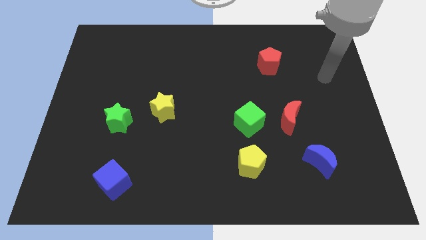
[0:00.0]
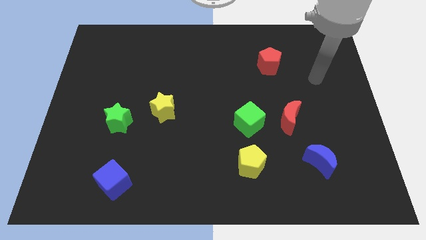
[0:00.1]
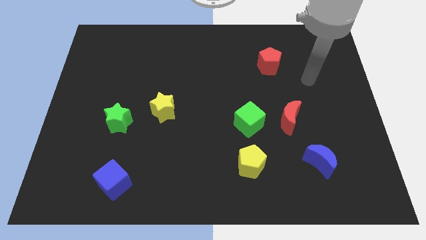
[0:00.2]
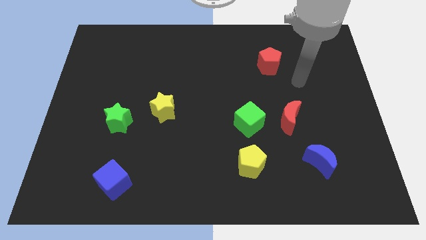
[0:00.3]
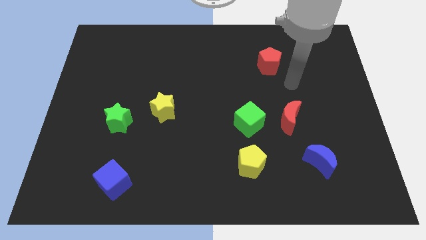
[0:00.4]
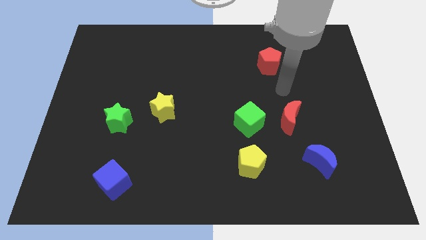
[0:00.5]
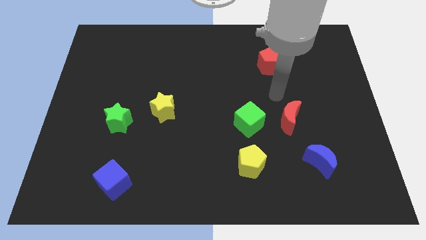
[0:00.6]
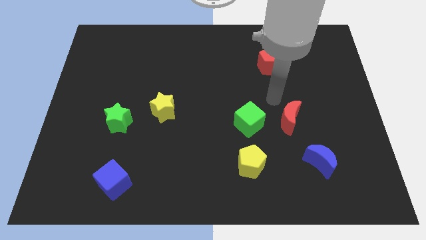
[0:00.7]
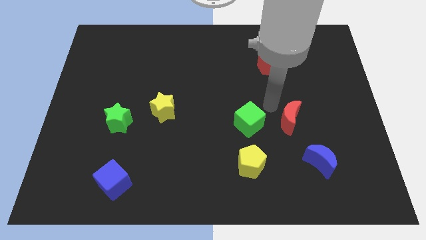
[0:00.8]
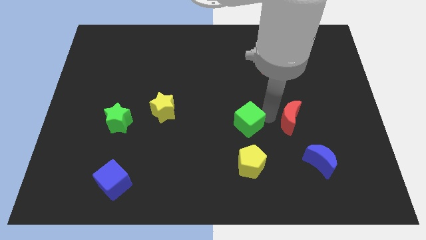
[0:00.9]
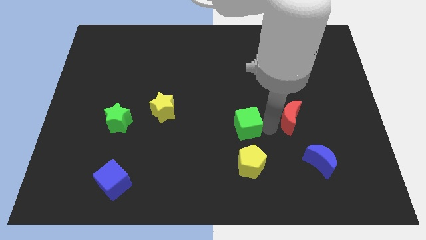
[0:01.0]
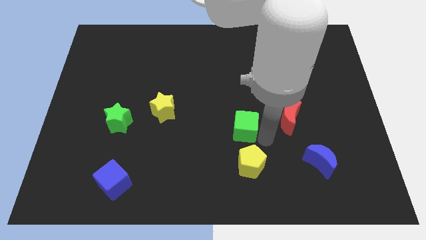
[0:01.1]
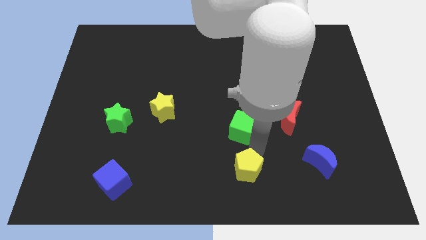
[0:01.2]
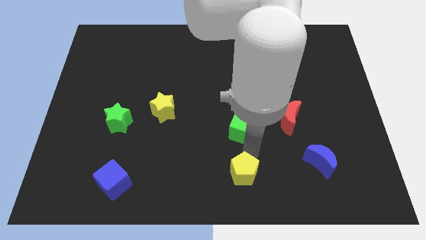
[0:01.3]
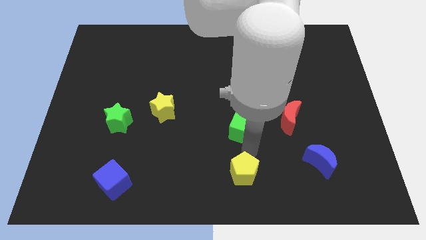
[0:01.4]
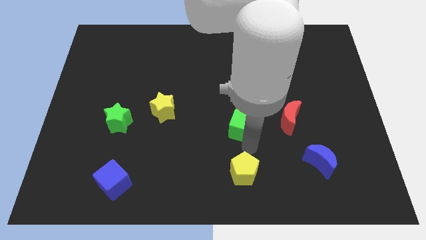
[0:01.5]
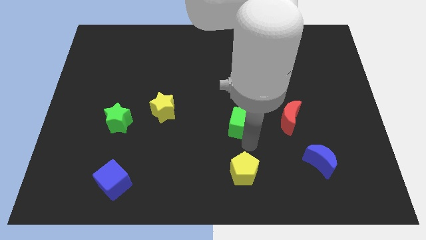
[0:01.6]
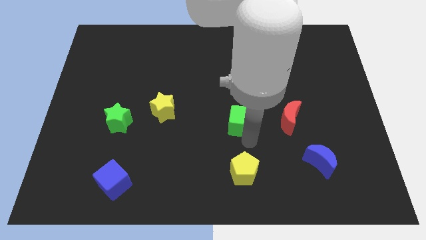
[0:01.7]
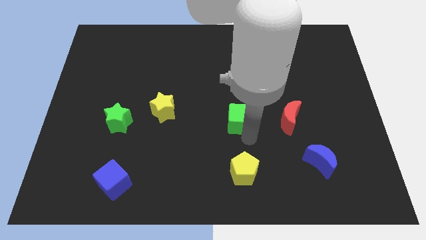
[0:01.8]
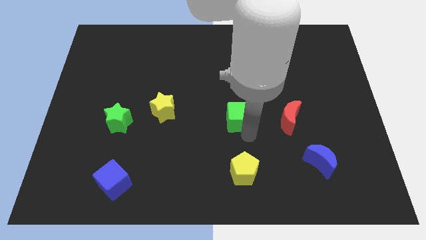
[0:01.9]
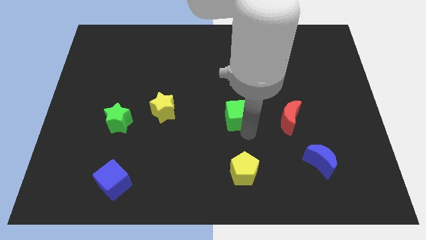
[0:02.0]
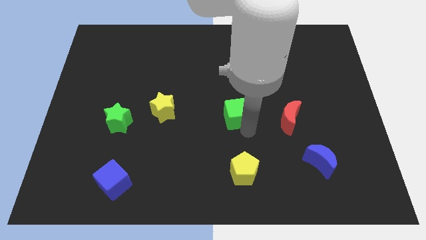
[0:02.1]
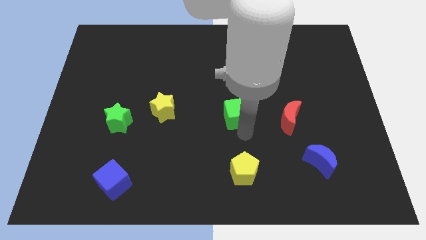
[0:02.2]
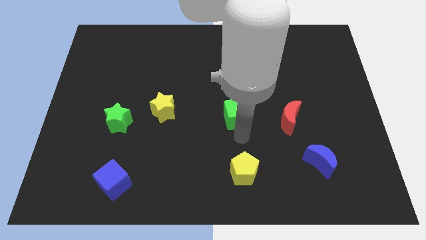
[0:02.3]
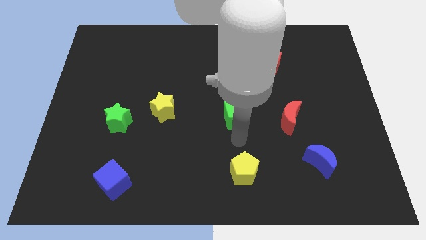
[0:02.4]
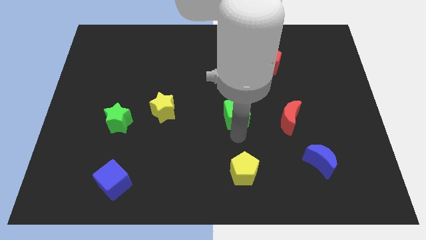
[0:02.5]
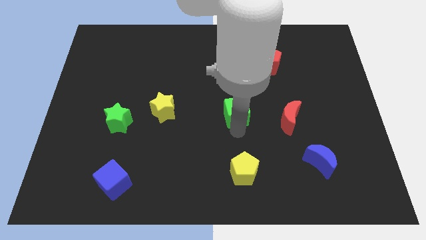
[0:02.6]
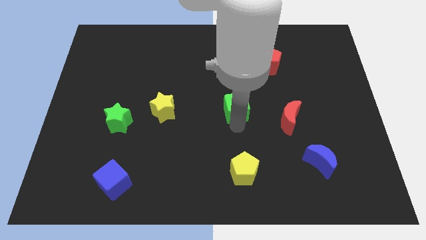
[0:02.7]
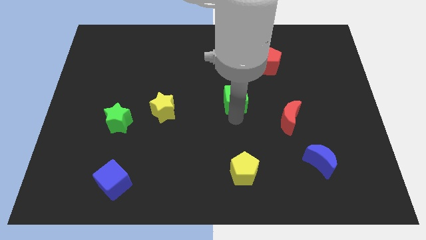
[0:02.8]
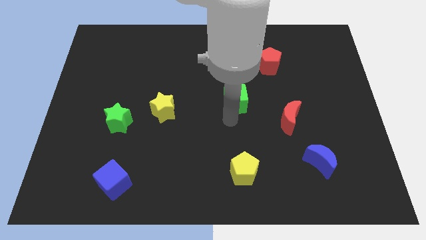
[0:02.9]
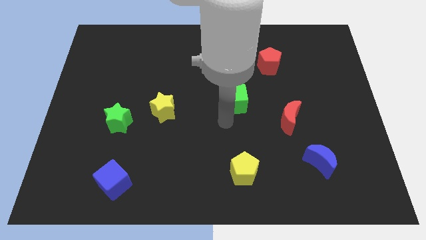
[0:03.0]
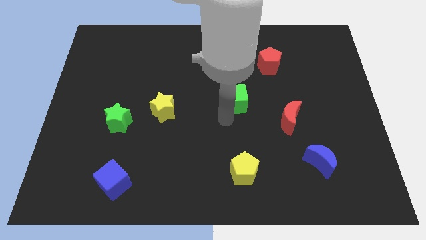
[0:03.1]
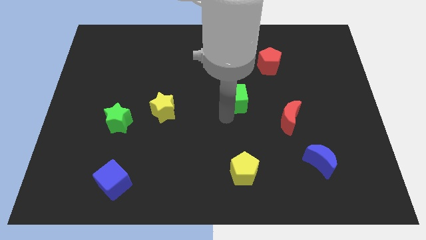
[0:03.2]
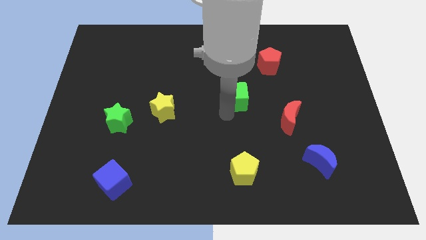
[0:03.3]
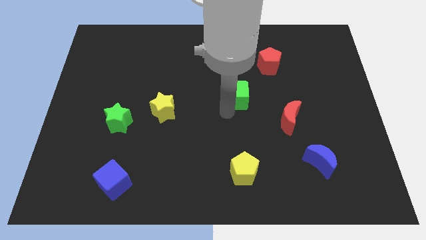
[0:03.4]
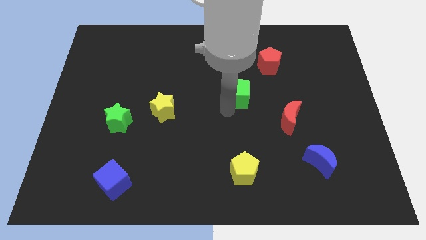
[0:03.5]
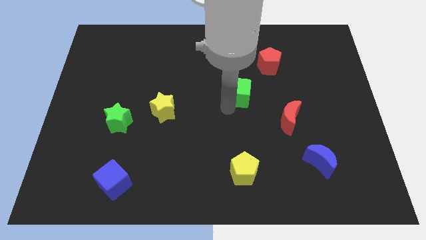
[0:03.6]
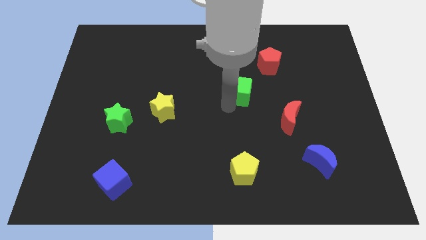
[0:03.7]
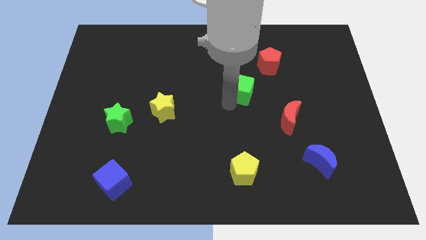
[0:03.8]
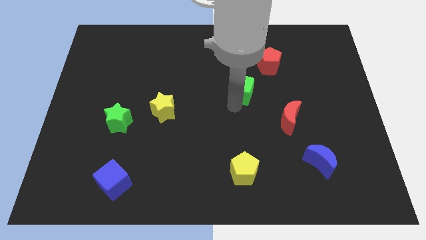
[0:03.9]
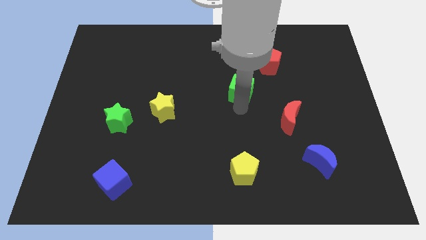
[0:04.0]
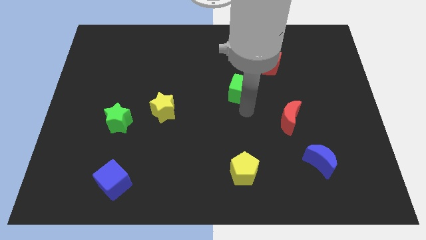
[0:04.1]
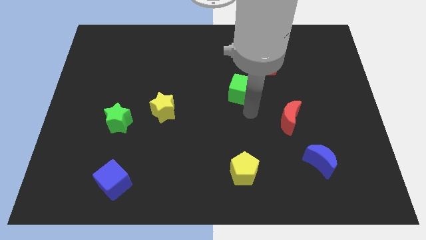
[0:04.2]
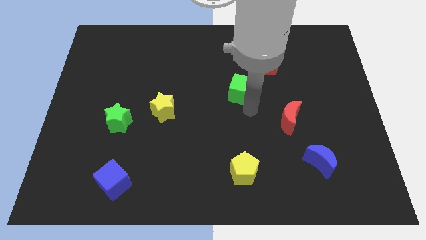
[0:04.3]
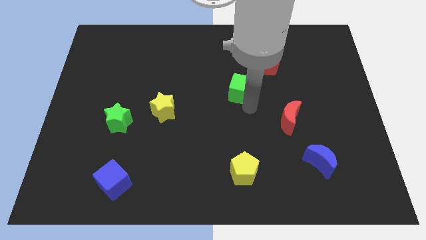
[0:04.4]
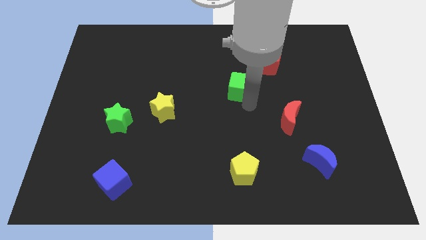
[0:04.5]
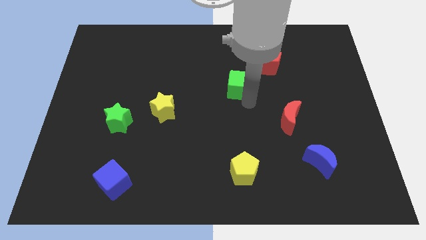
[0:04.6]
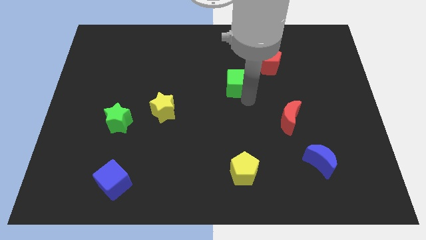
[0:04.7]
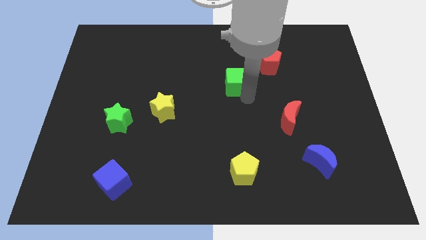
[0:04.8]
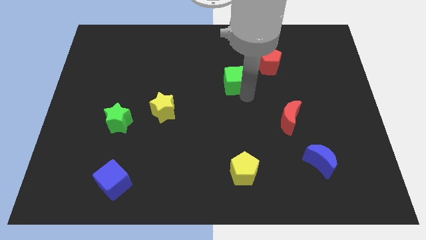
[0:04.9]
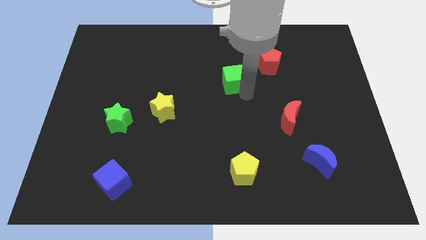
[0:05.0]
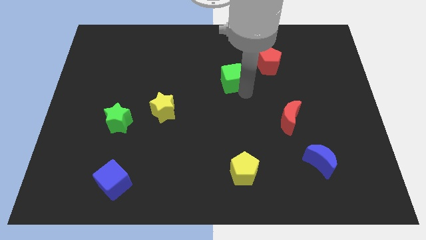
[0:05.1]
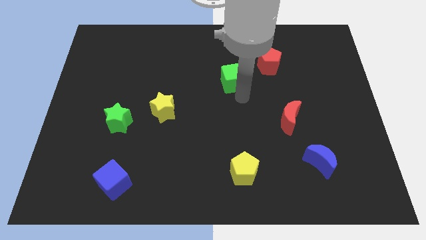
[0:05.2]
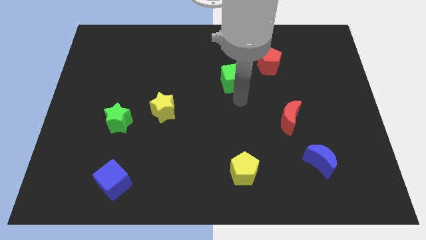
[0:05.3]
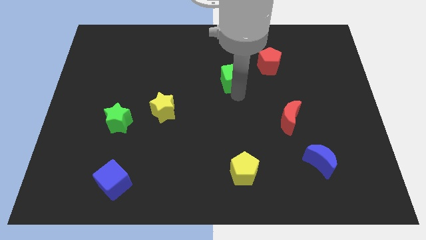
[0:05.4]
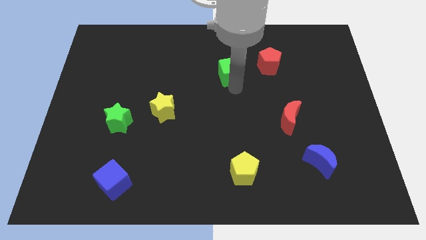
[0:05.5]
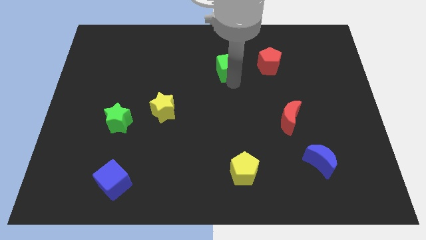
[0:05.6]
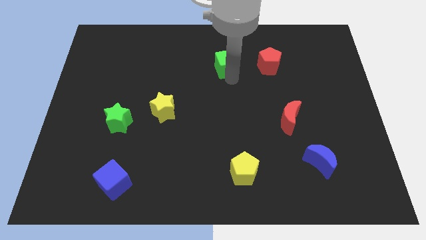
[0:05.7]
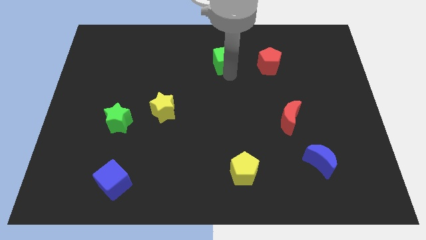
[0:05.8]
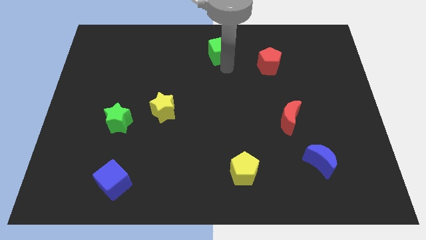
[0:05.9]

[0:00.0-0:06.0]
put the green cube to the towards your base

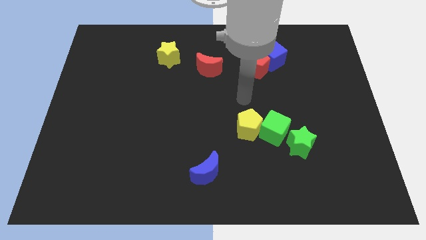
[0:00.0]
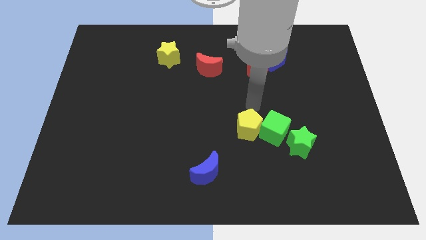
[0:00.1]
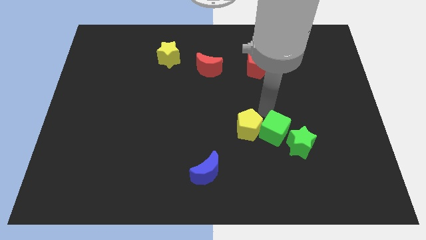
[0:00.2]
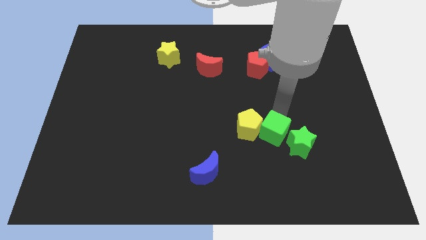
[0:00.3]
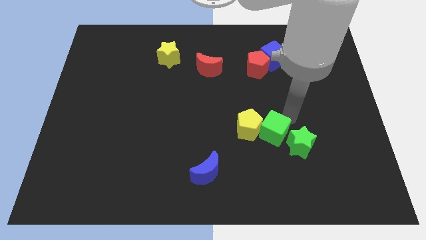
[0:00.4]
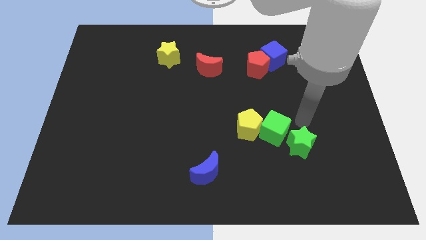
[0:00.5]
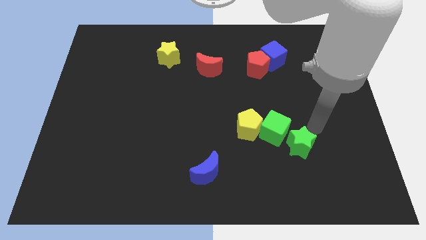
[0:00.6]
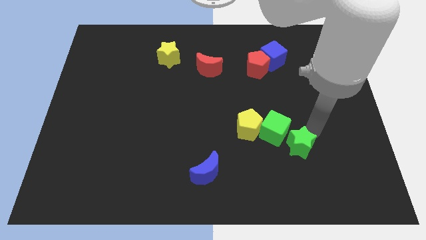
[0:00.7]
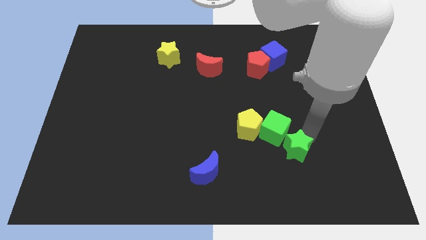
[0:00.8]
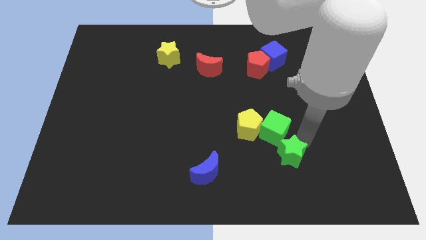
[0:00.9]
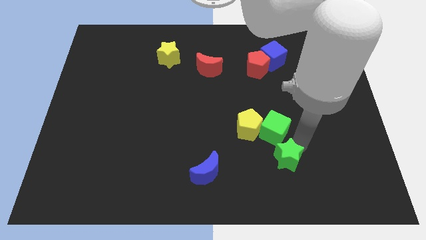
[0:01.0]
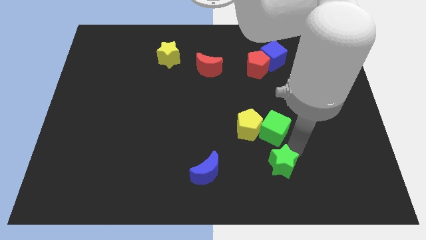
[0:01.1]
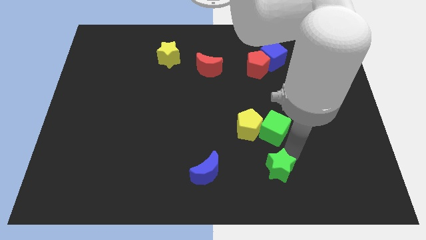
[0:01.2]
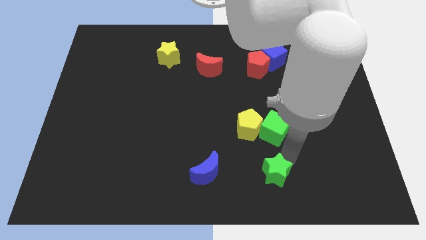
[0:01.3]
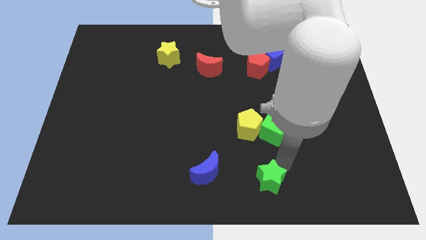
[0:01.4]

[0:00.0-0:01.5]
move the green star to the bottom
